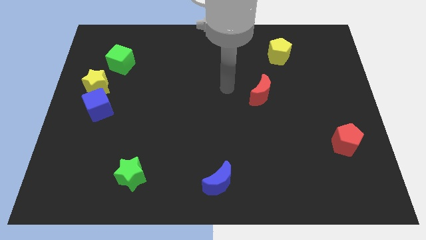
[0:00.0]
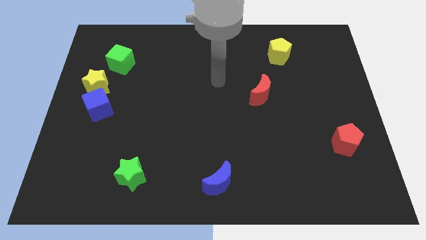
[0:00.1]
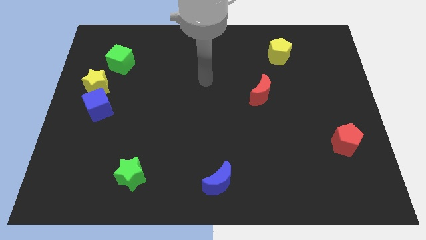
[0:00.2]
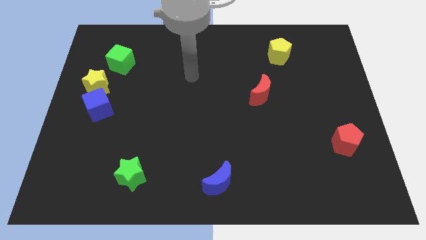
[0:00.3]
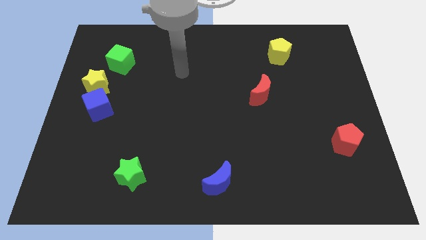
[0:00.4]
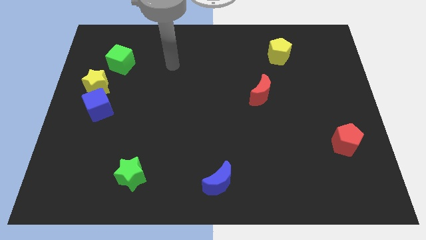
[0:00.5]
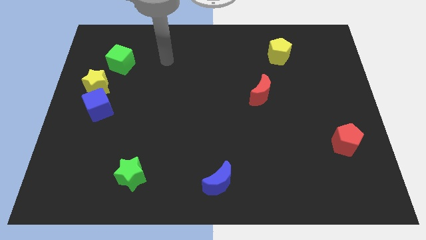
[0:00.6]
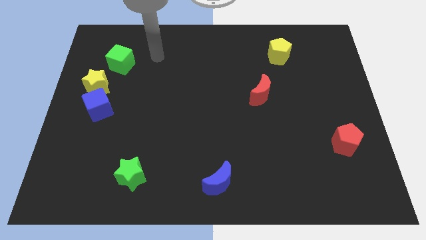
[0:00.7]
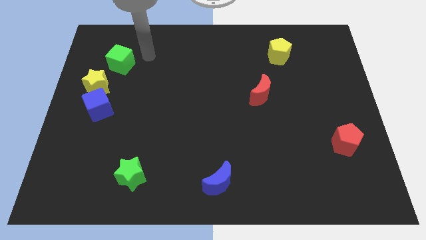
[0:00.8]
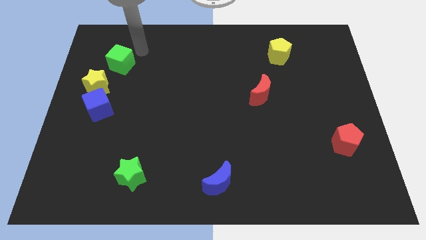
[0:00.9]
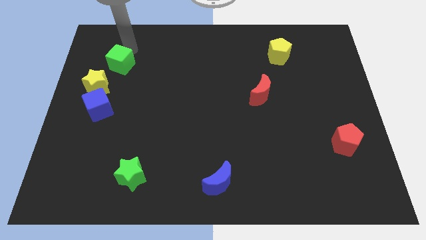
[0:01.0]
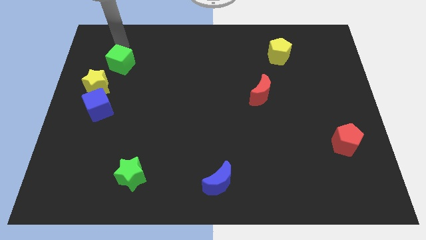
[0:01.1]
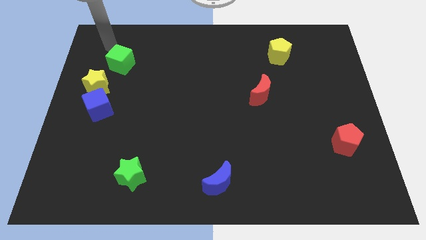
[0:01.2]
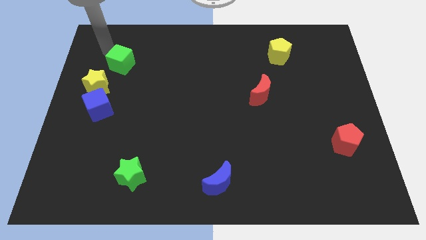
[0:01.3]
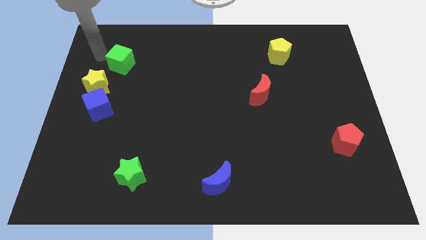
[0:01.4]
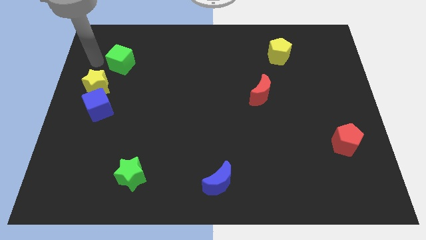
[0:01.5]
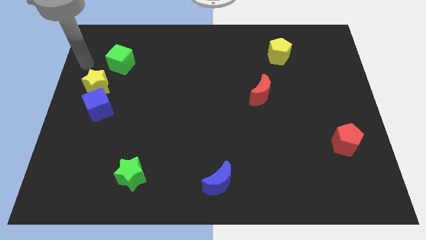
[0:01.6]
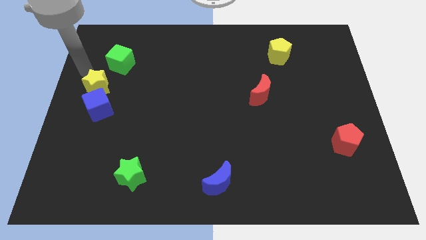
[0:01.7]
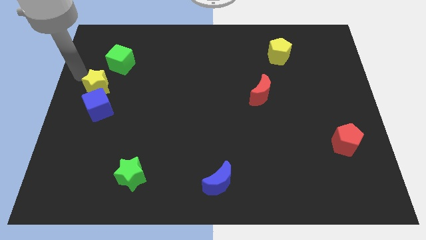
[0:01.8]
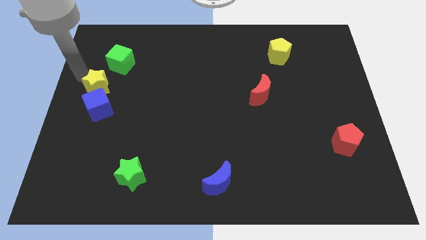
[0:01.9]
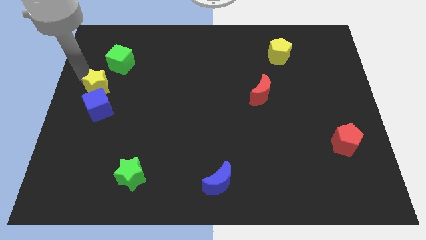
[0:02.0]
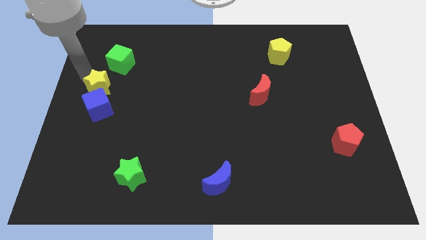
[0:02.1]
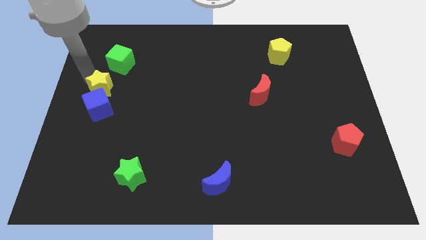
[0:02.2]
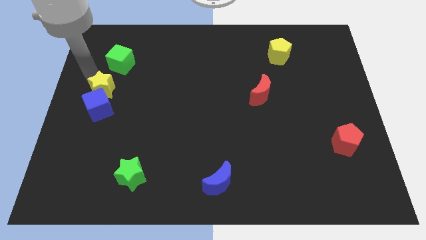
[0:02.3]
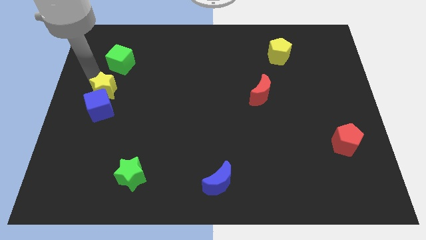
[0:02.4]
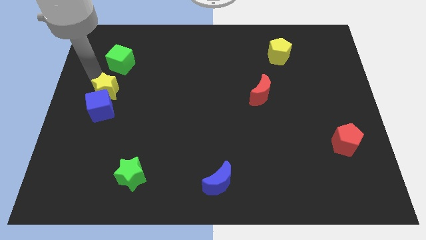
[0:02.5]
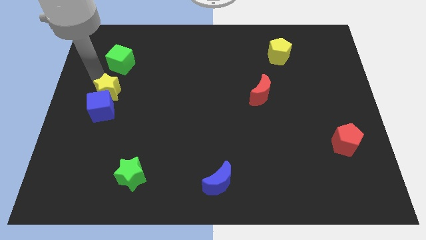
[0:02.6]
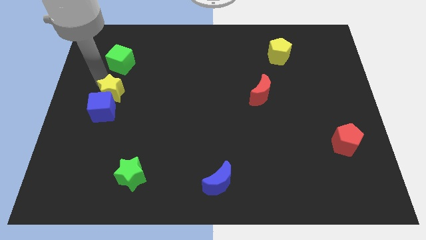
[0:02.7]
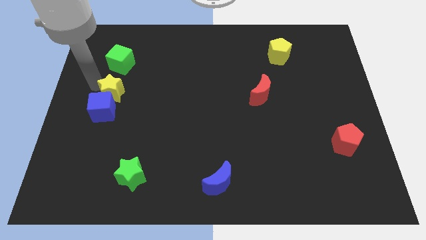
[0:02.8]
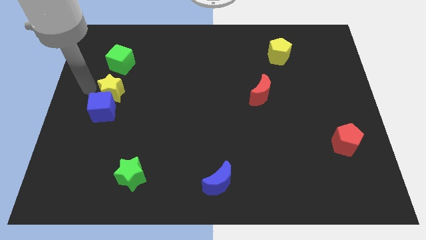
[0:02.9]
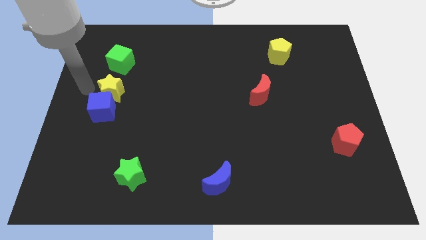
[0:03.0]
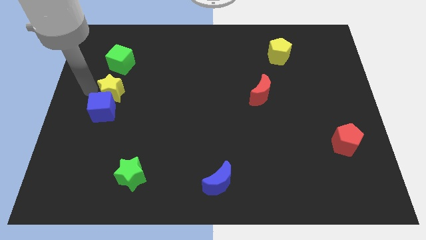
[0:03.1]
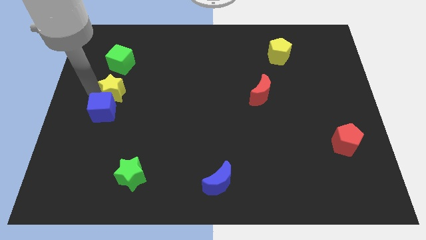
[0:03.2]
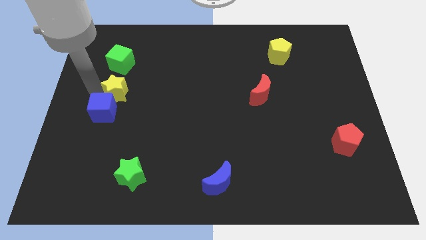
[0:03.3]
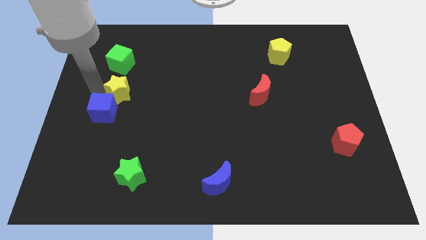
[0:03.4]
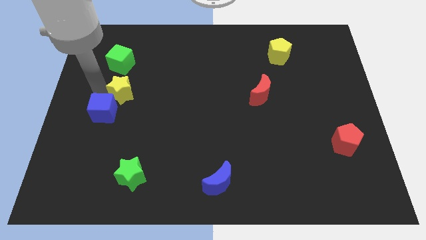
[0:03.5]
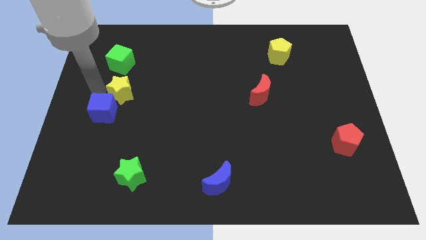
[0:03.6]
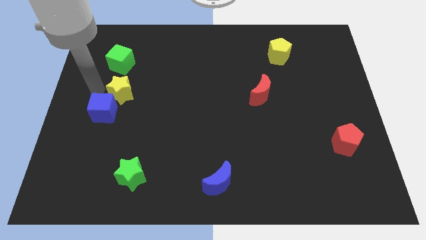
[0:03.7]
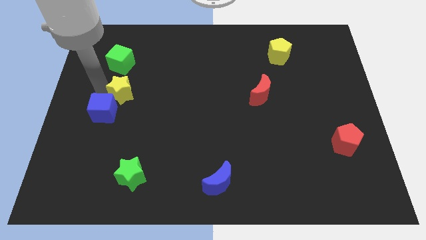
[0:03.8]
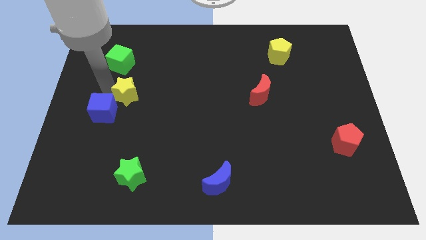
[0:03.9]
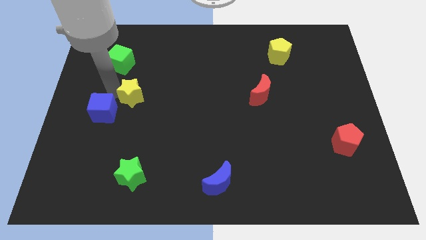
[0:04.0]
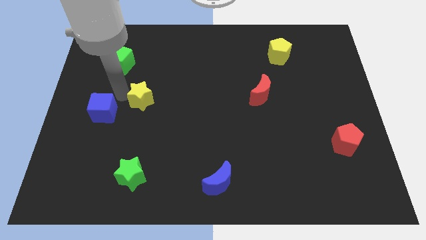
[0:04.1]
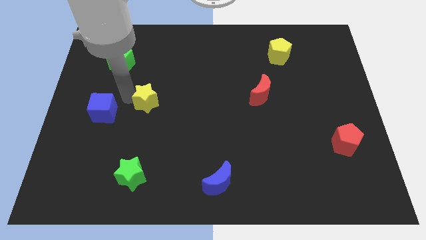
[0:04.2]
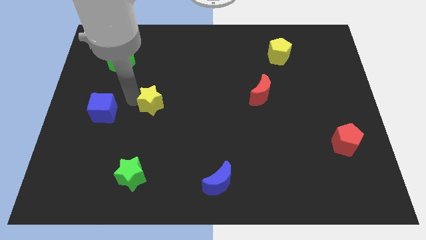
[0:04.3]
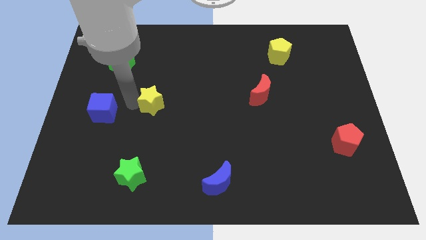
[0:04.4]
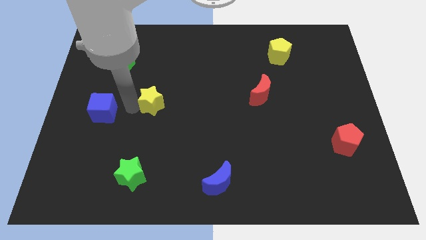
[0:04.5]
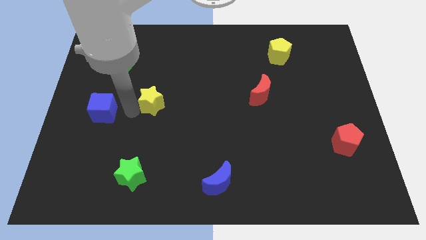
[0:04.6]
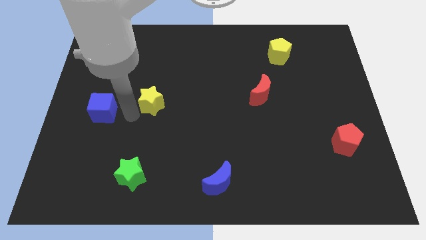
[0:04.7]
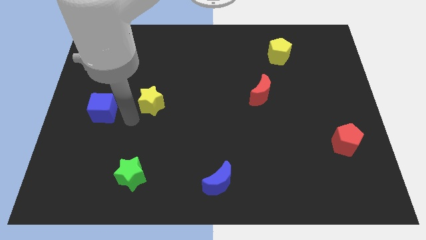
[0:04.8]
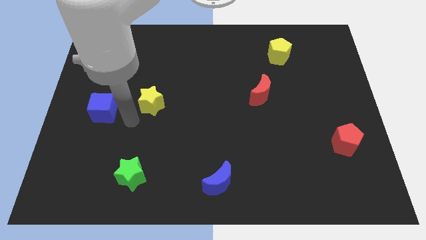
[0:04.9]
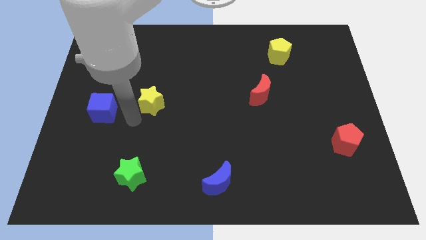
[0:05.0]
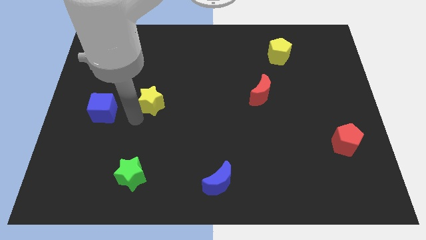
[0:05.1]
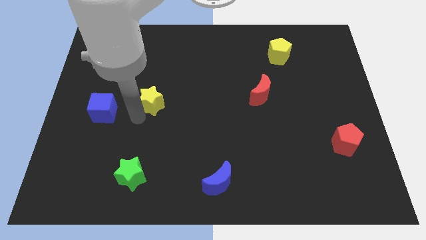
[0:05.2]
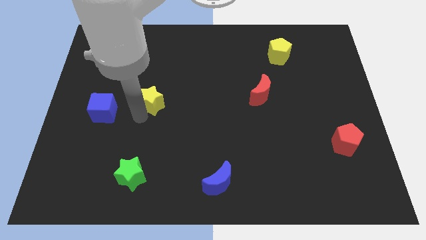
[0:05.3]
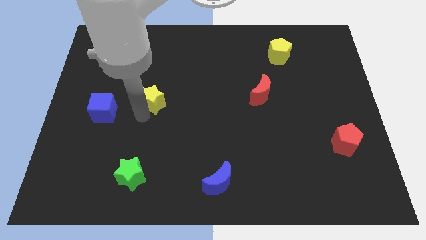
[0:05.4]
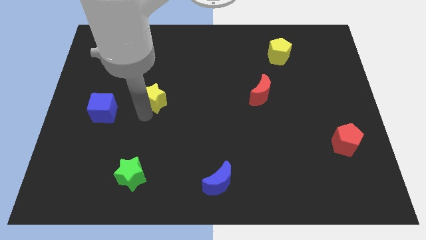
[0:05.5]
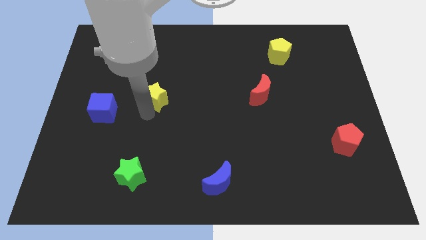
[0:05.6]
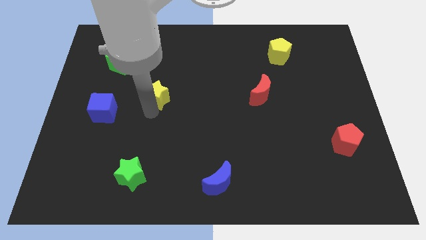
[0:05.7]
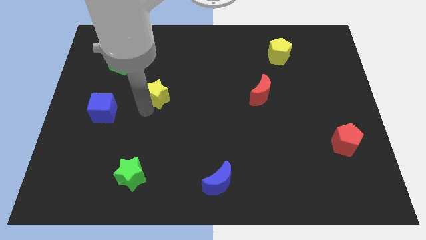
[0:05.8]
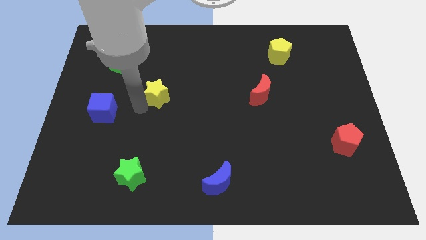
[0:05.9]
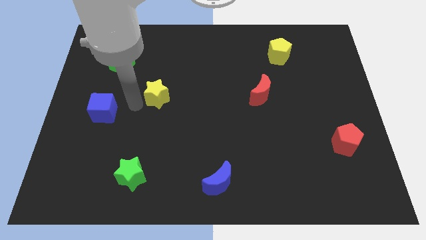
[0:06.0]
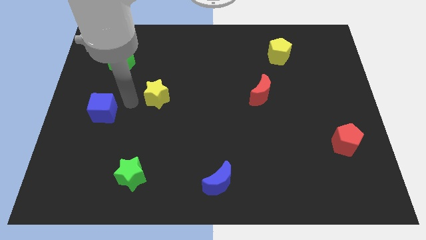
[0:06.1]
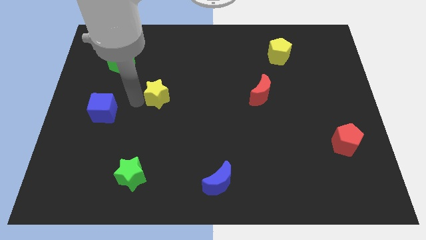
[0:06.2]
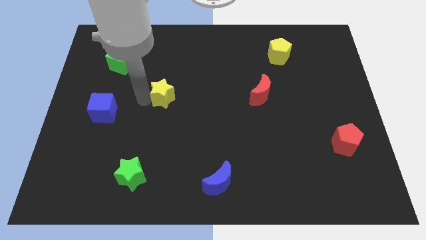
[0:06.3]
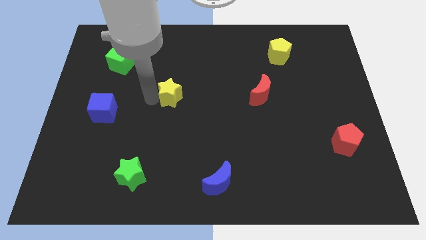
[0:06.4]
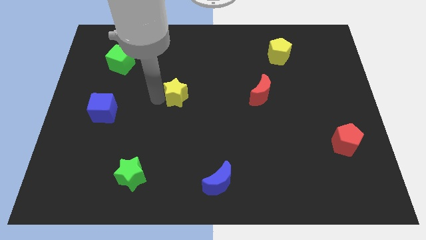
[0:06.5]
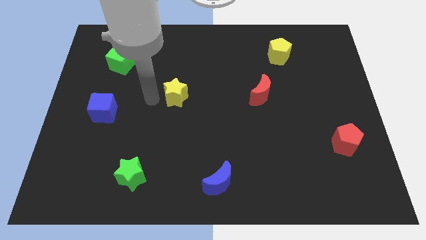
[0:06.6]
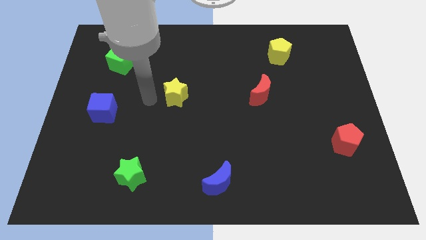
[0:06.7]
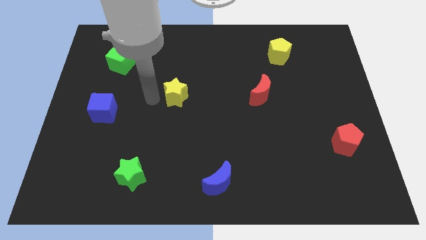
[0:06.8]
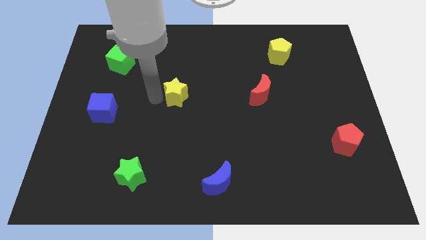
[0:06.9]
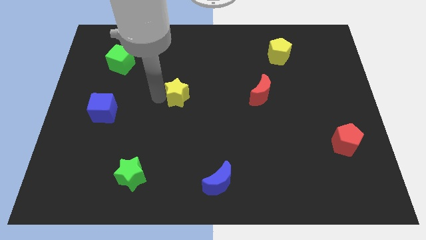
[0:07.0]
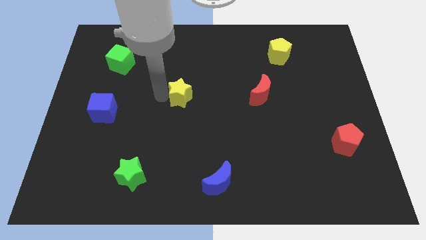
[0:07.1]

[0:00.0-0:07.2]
move the yellow star to the right

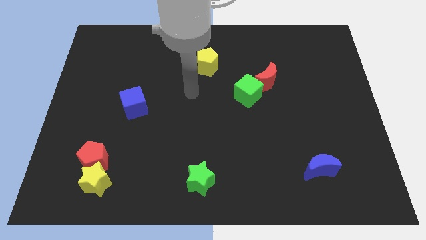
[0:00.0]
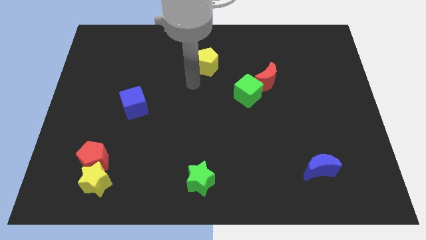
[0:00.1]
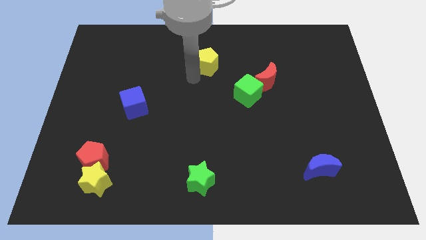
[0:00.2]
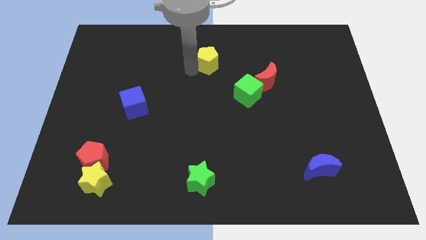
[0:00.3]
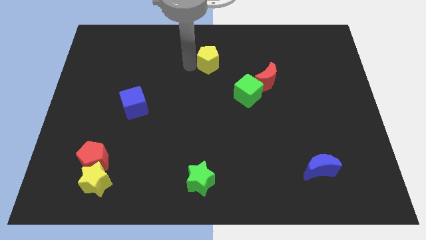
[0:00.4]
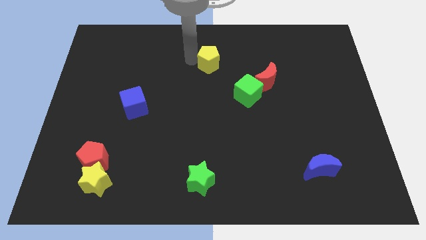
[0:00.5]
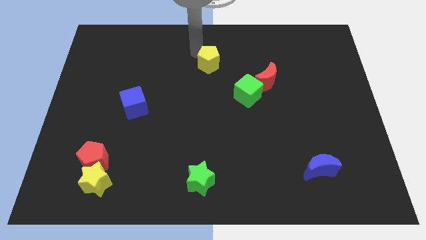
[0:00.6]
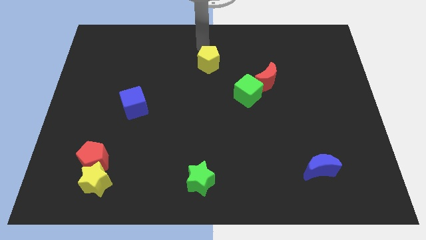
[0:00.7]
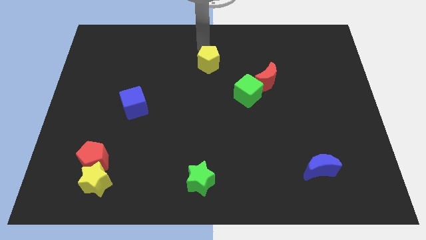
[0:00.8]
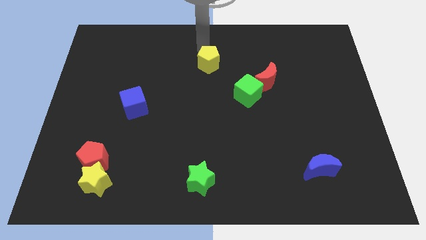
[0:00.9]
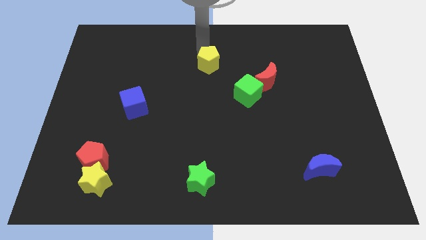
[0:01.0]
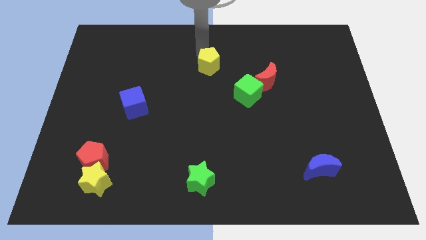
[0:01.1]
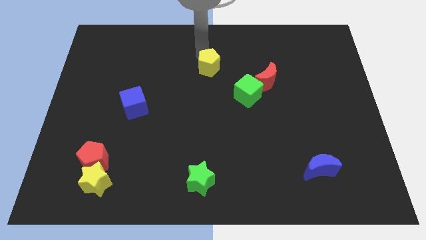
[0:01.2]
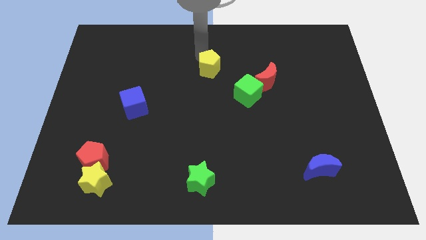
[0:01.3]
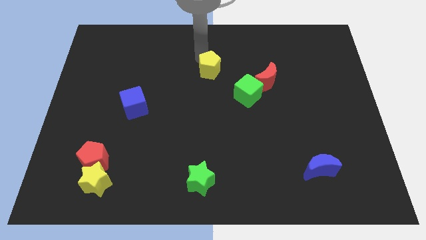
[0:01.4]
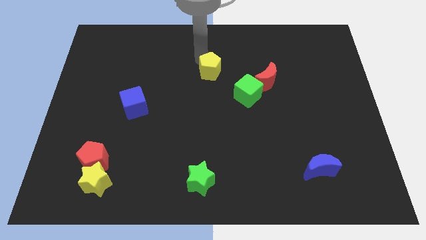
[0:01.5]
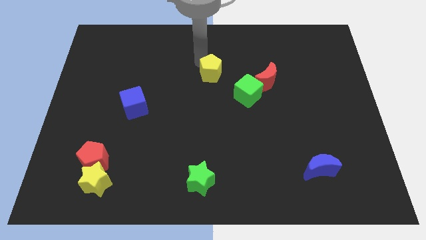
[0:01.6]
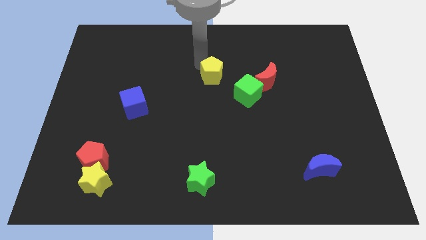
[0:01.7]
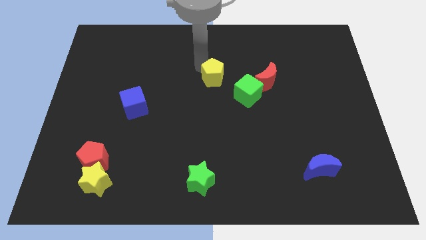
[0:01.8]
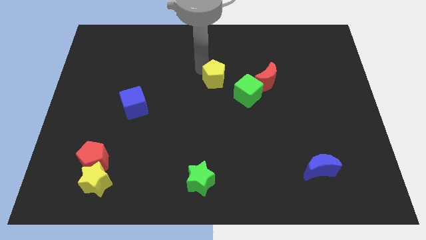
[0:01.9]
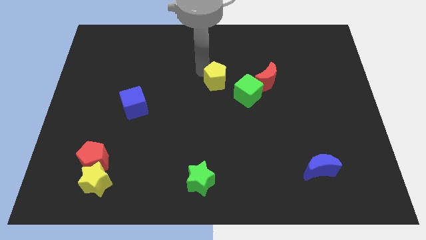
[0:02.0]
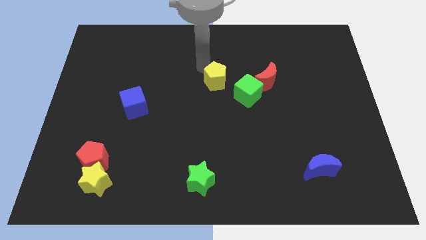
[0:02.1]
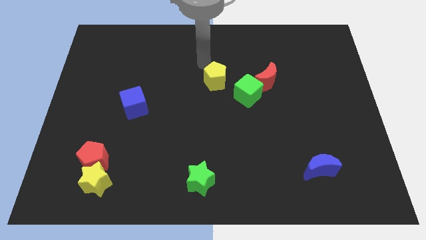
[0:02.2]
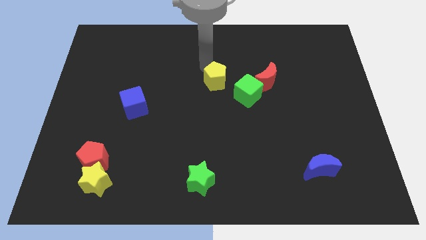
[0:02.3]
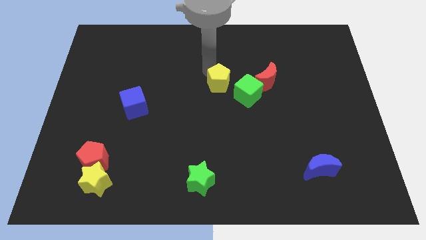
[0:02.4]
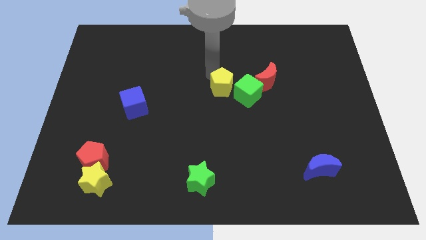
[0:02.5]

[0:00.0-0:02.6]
slide the yellow pentagon down and right diagonally somewhat
